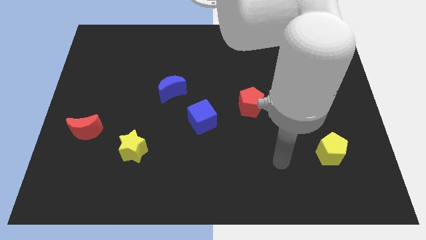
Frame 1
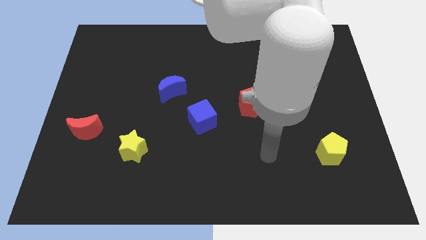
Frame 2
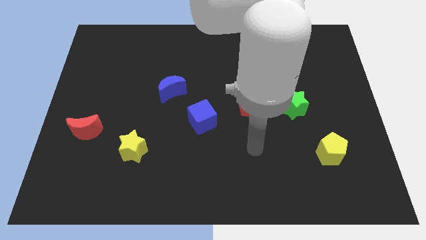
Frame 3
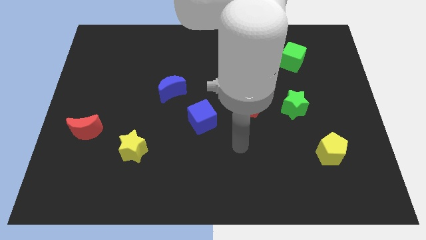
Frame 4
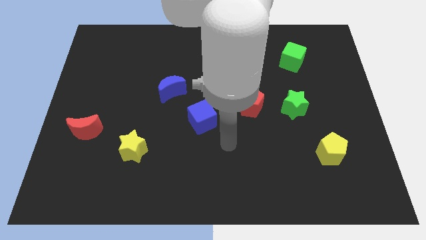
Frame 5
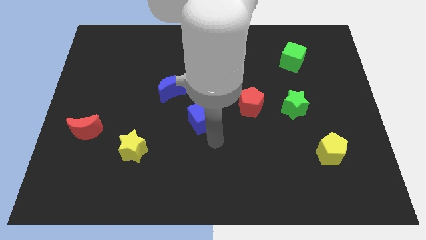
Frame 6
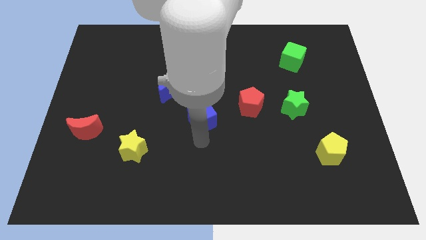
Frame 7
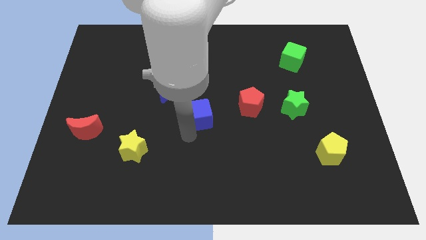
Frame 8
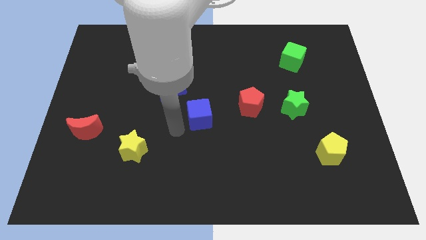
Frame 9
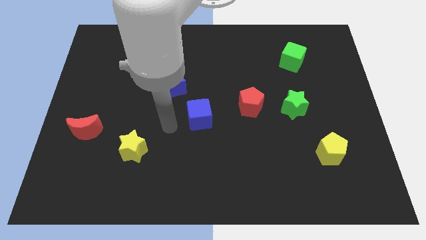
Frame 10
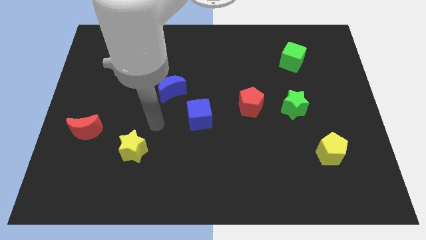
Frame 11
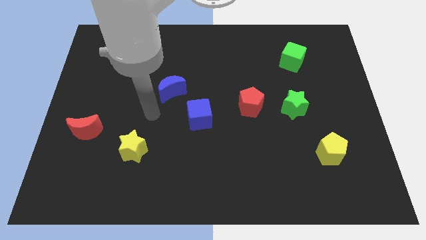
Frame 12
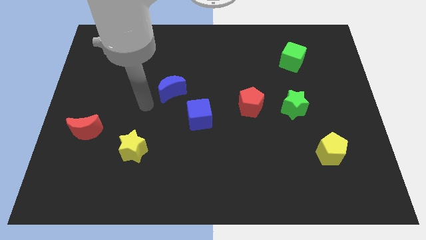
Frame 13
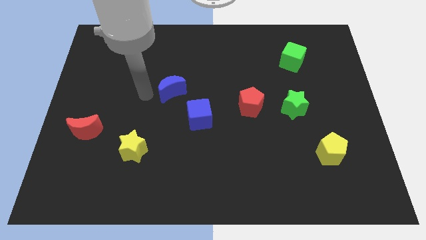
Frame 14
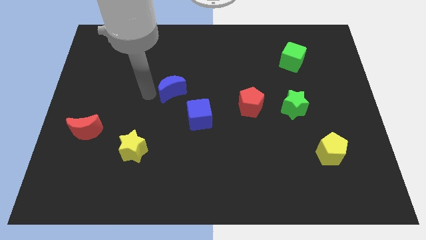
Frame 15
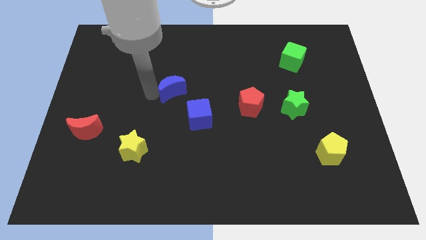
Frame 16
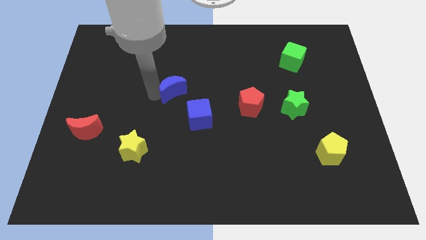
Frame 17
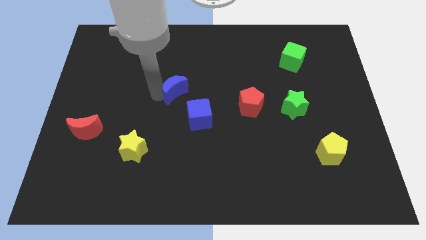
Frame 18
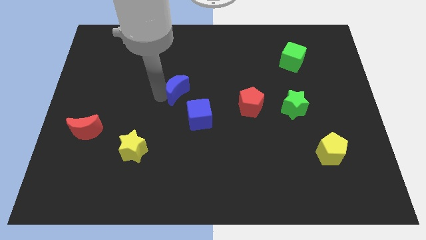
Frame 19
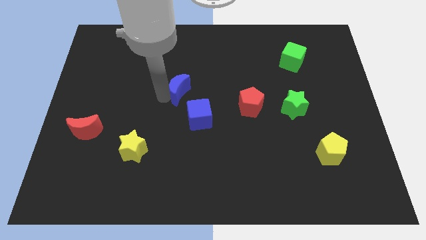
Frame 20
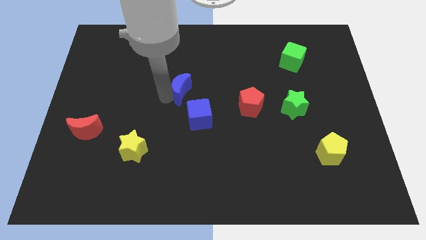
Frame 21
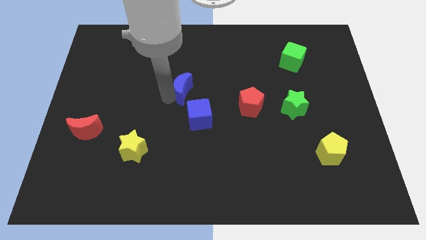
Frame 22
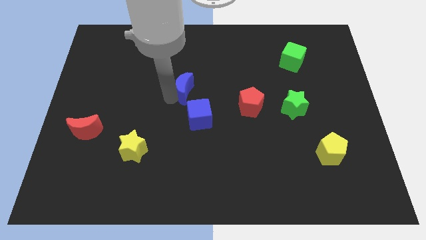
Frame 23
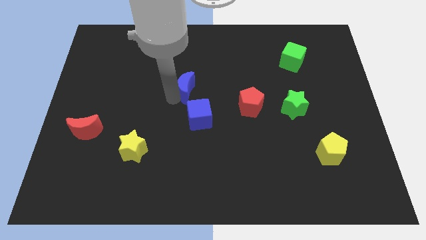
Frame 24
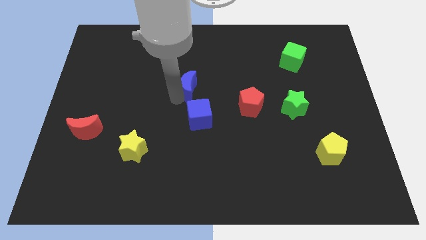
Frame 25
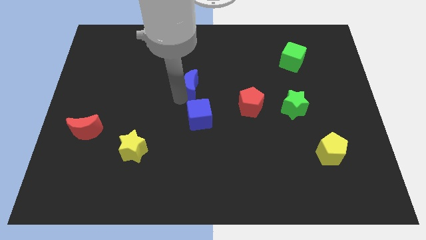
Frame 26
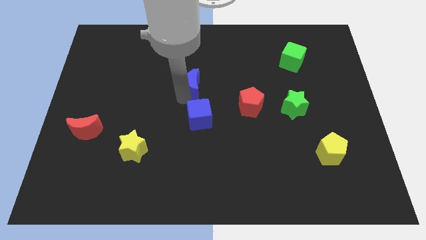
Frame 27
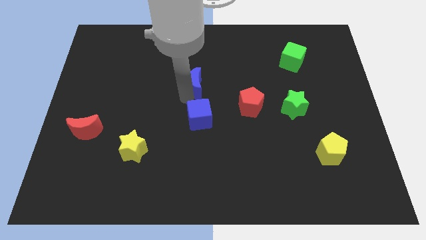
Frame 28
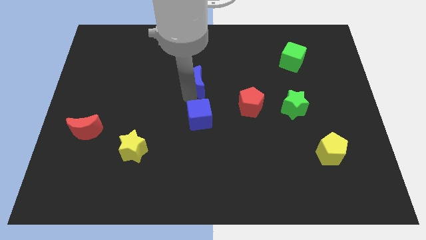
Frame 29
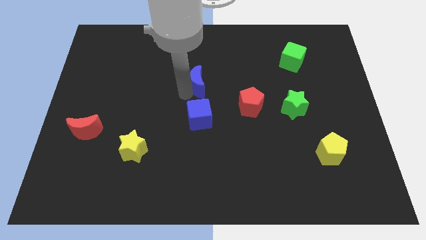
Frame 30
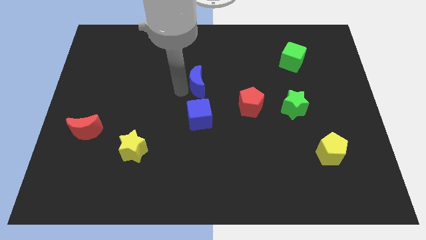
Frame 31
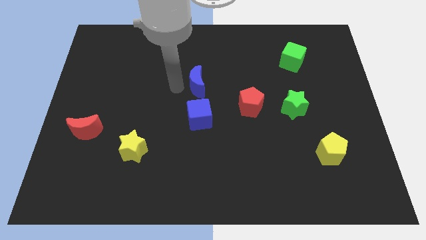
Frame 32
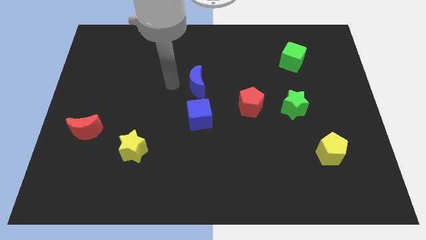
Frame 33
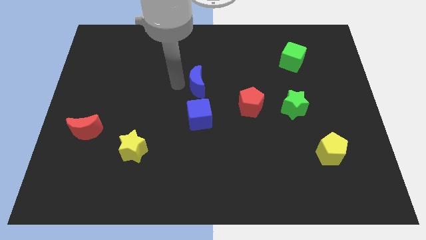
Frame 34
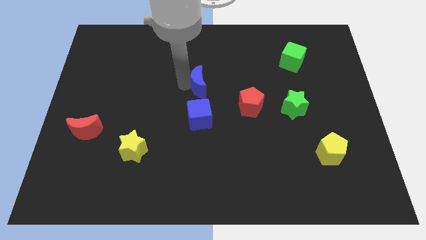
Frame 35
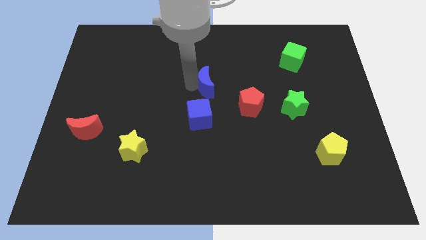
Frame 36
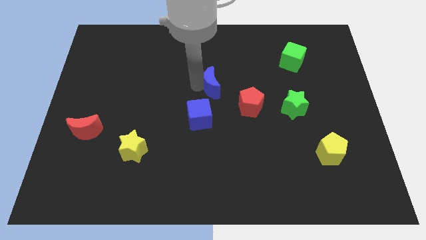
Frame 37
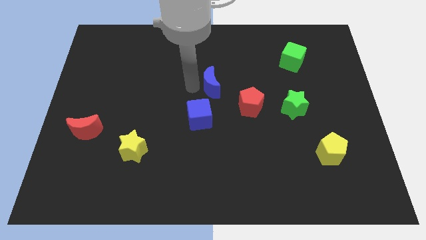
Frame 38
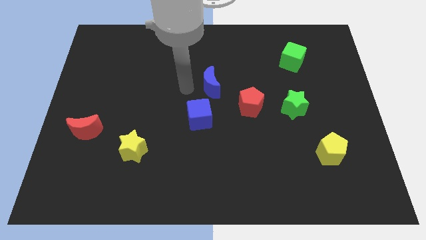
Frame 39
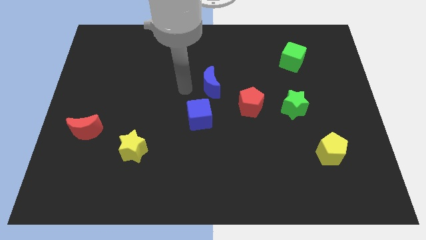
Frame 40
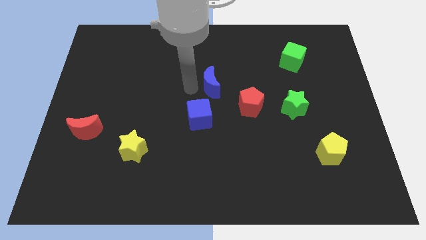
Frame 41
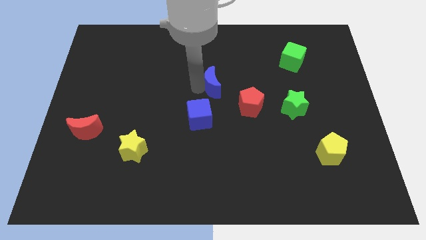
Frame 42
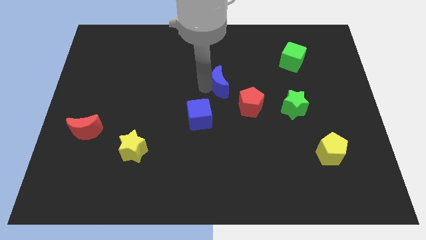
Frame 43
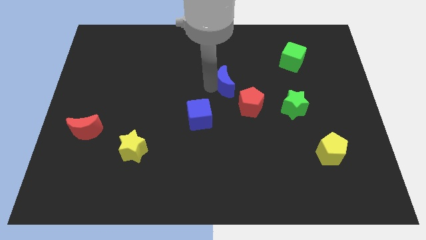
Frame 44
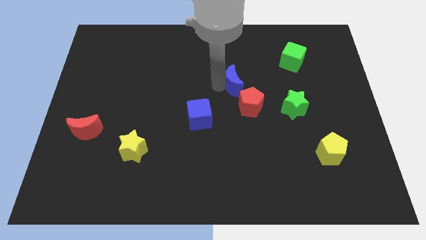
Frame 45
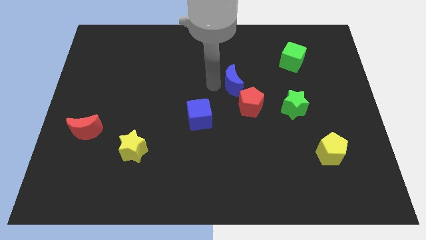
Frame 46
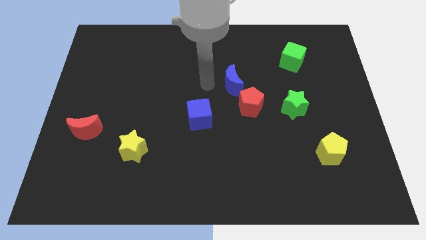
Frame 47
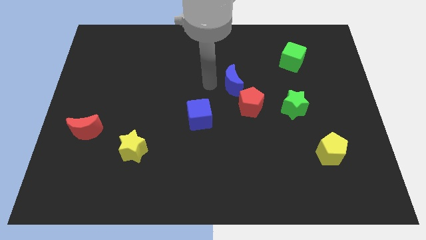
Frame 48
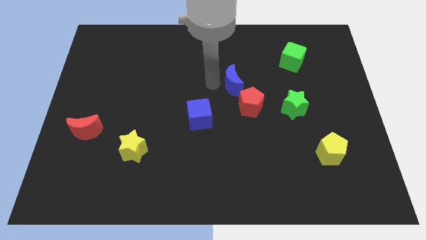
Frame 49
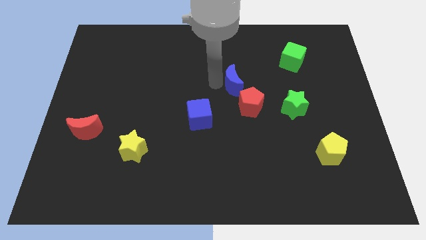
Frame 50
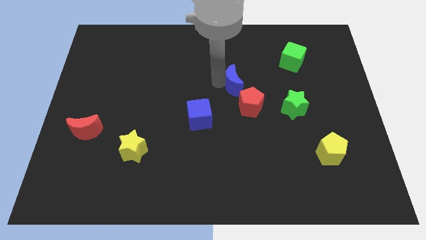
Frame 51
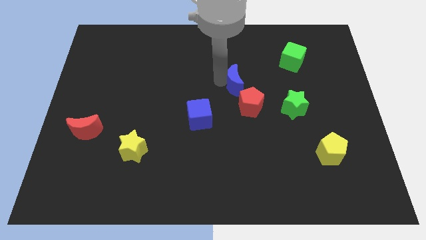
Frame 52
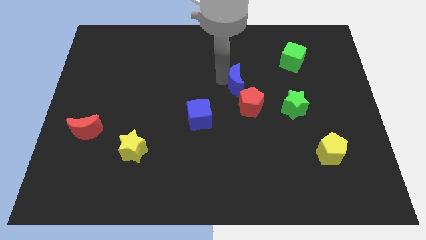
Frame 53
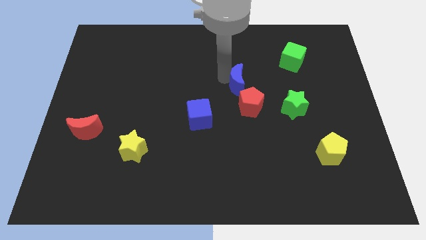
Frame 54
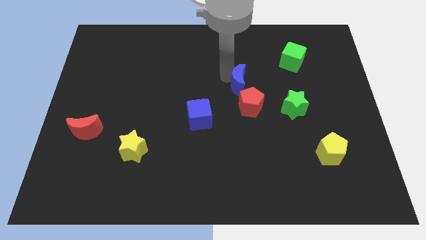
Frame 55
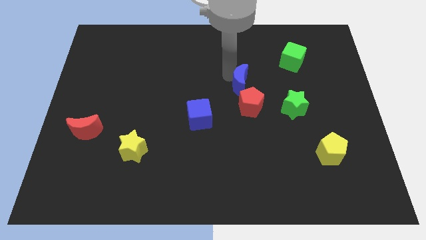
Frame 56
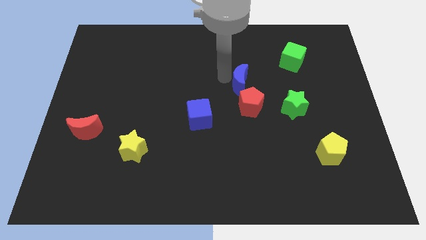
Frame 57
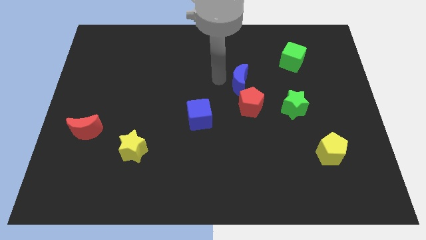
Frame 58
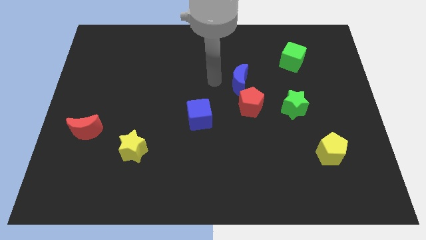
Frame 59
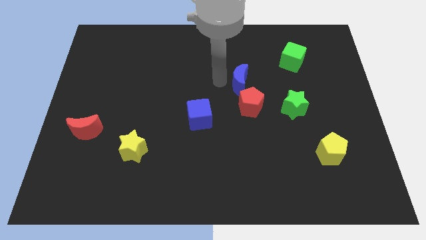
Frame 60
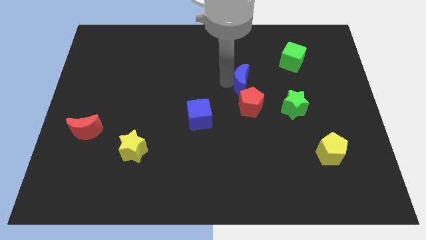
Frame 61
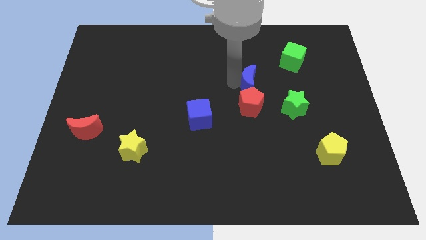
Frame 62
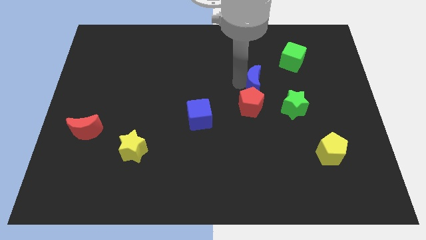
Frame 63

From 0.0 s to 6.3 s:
push the blue moon right

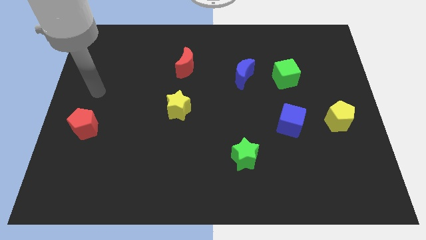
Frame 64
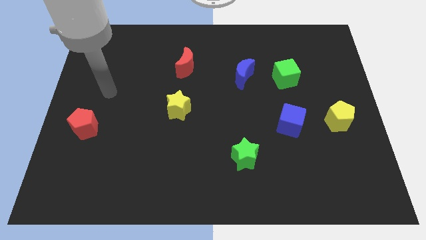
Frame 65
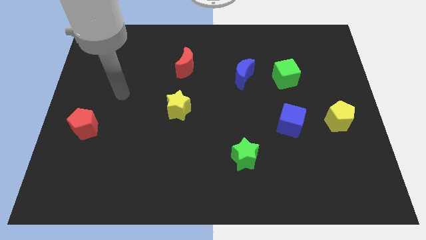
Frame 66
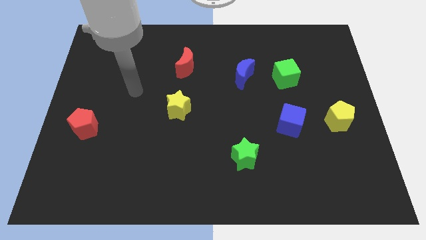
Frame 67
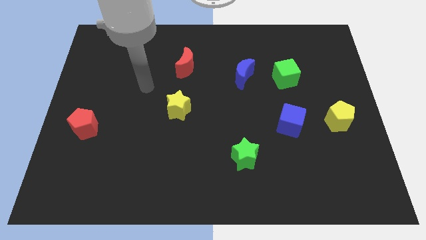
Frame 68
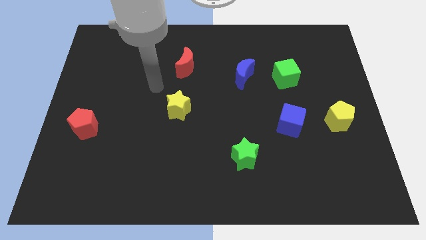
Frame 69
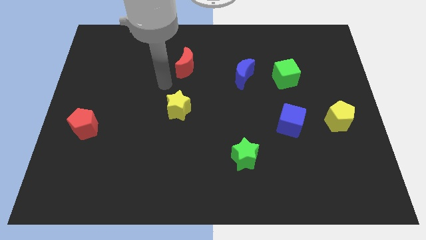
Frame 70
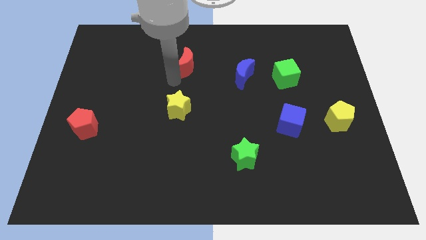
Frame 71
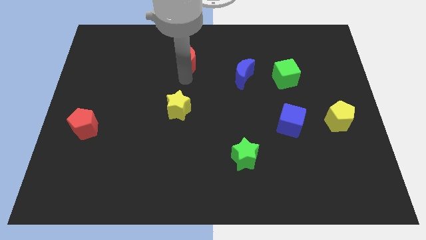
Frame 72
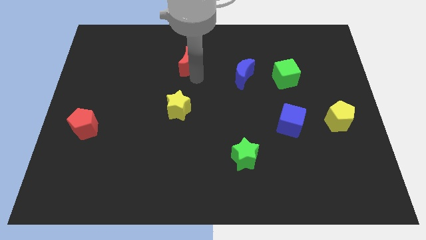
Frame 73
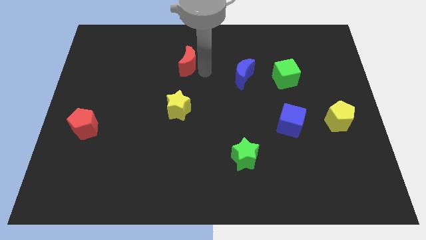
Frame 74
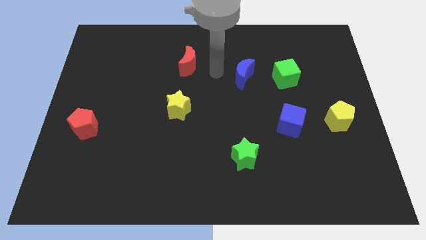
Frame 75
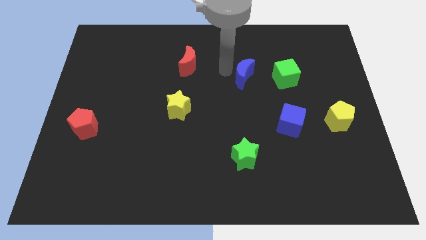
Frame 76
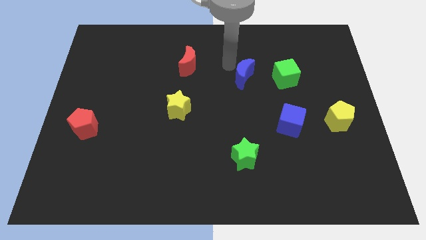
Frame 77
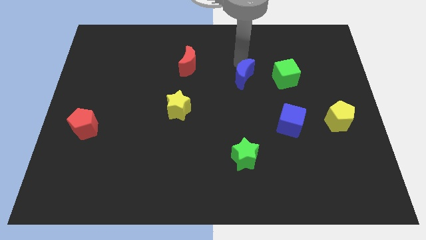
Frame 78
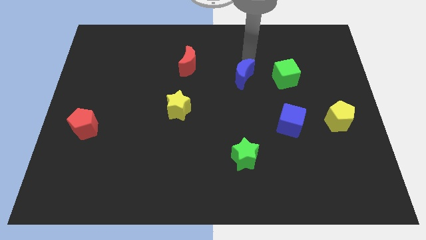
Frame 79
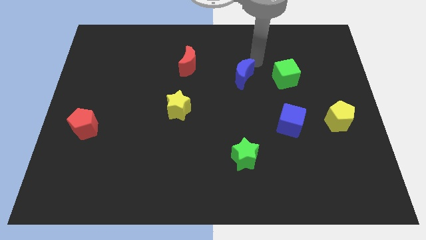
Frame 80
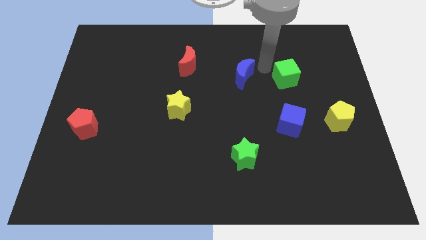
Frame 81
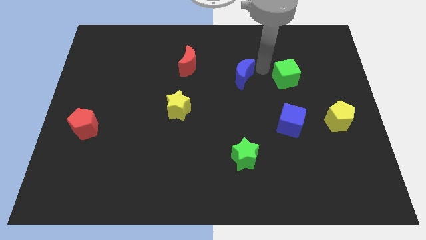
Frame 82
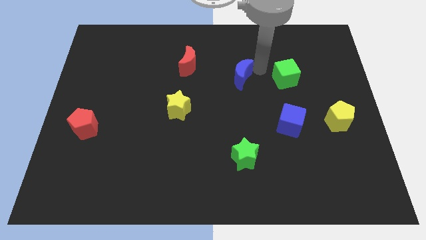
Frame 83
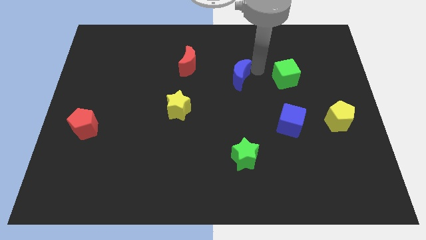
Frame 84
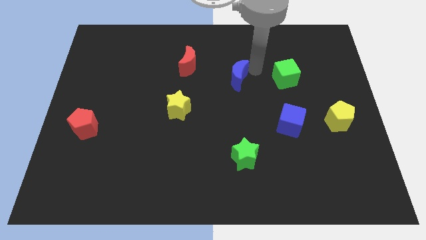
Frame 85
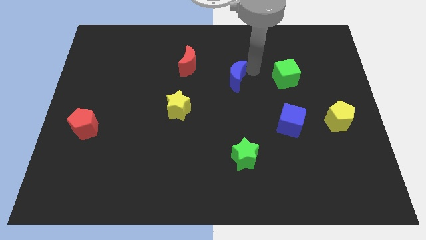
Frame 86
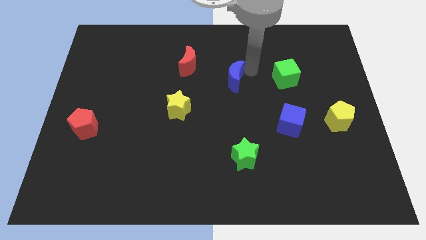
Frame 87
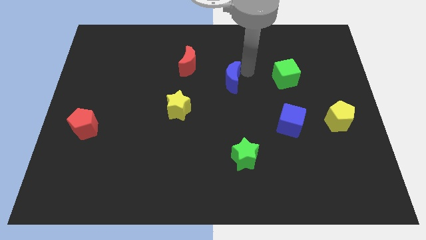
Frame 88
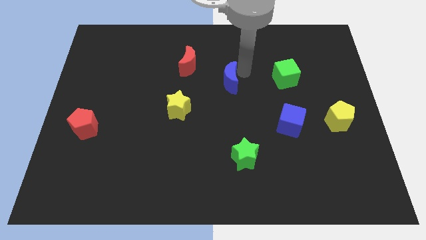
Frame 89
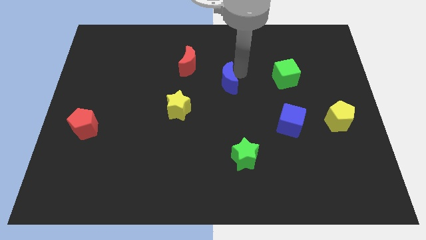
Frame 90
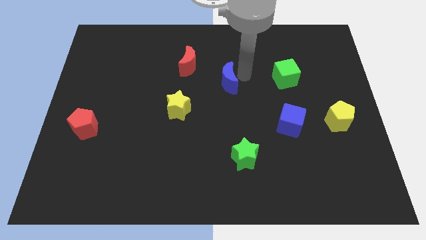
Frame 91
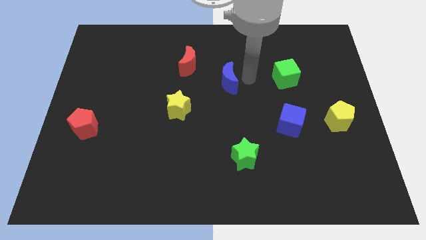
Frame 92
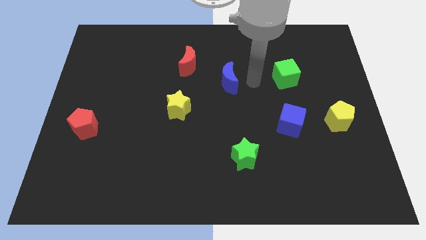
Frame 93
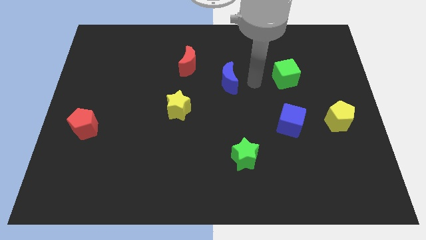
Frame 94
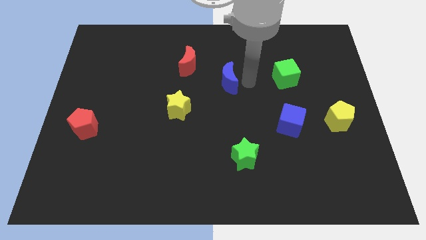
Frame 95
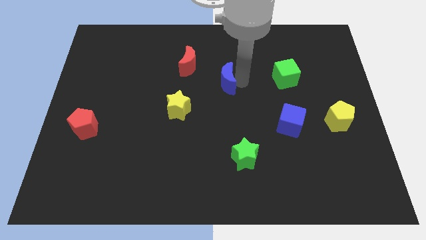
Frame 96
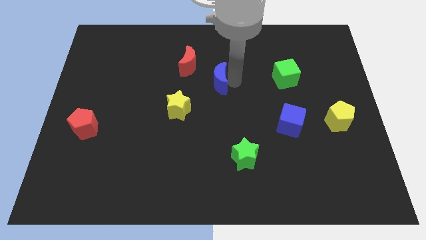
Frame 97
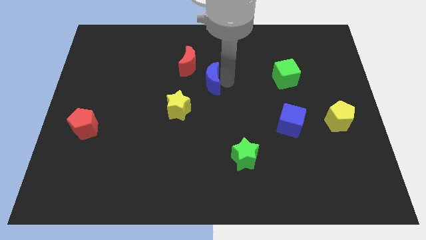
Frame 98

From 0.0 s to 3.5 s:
move the blue moon somewhat left
